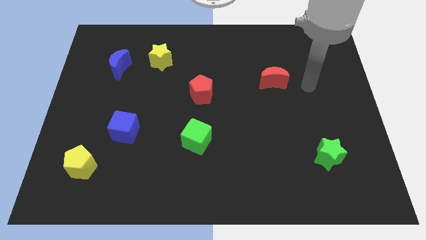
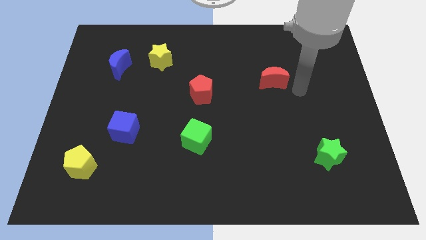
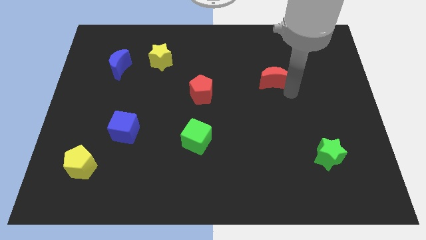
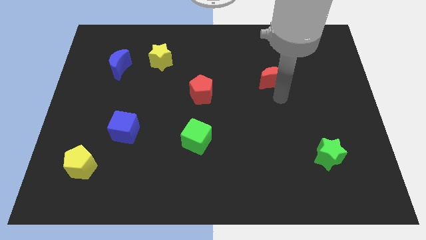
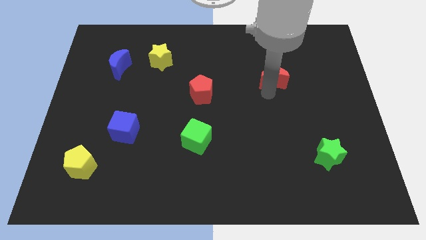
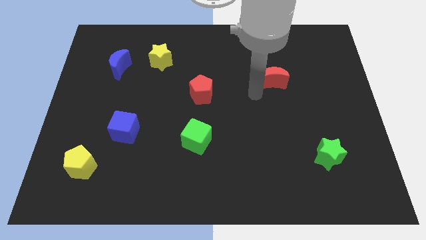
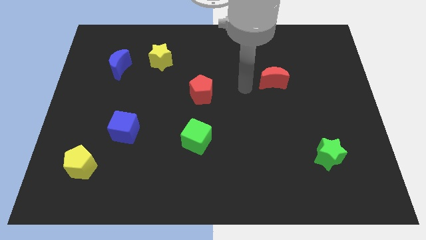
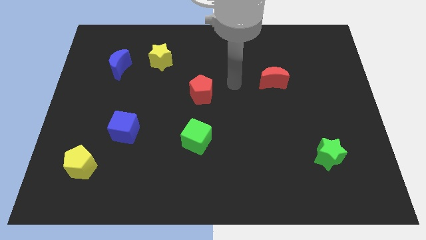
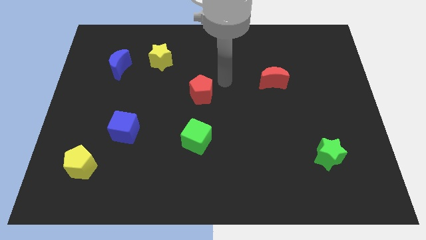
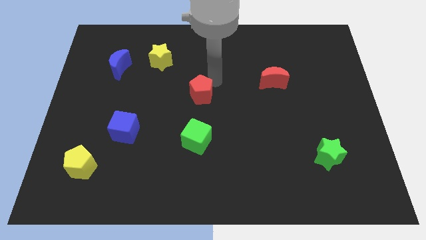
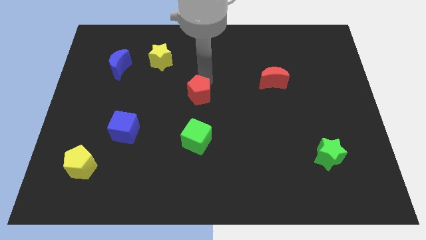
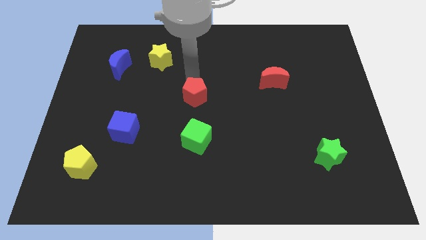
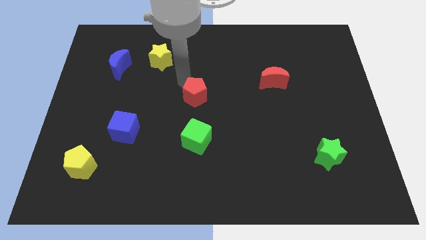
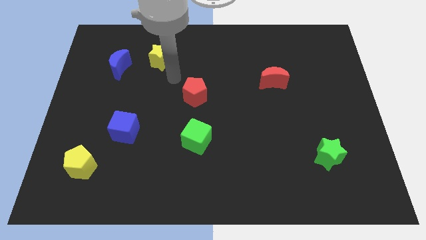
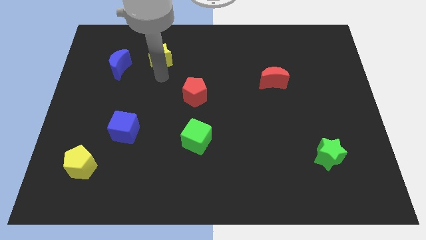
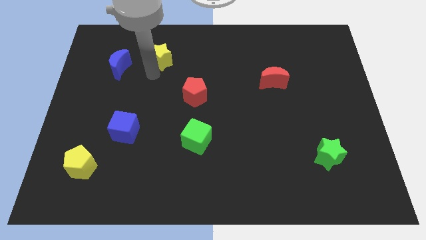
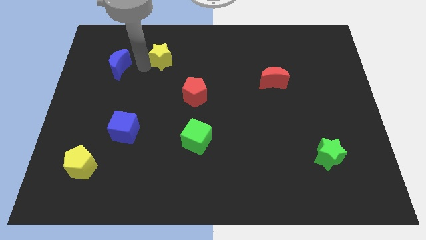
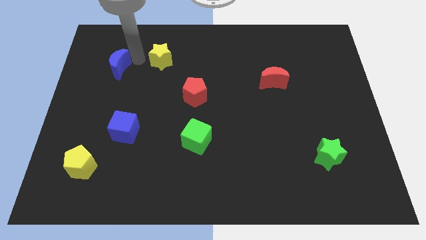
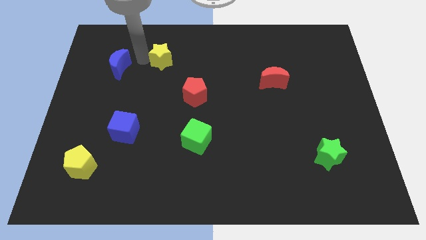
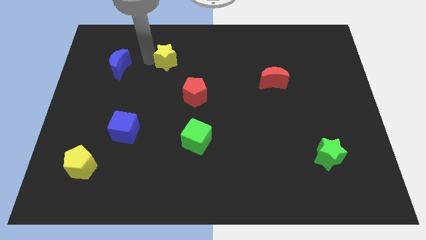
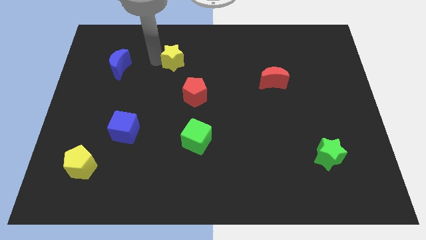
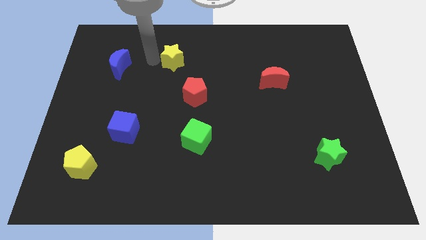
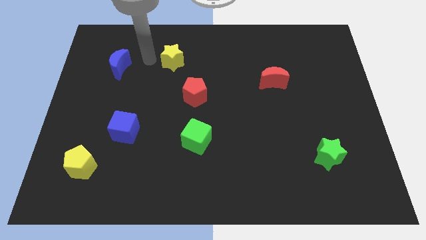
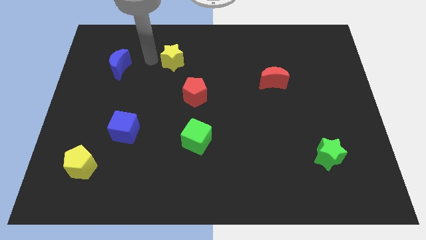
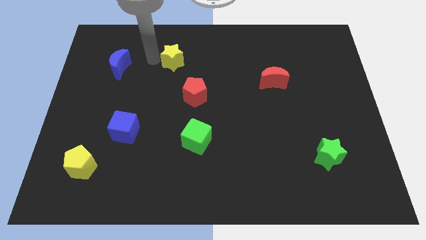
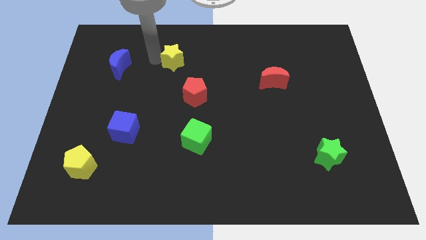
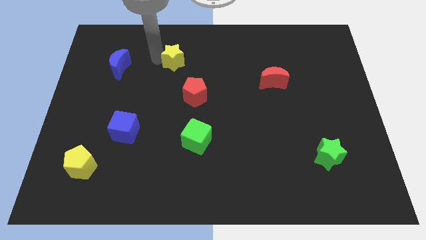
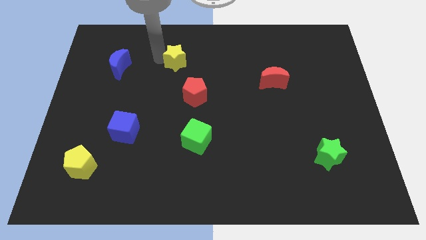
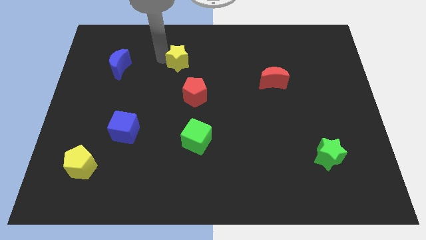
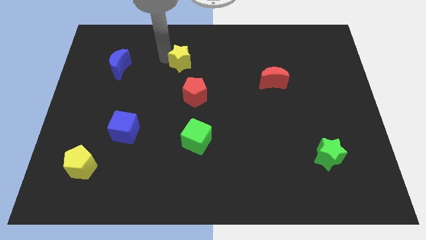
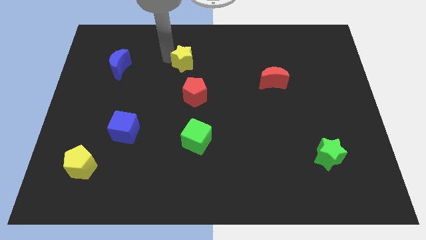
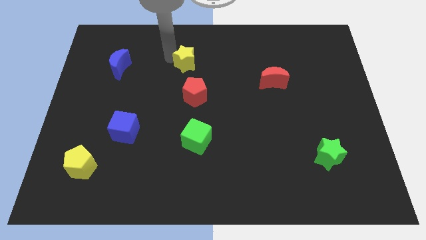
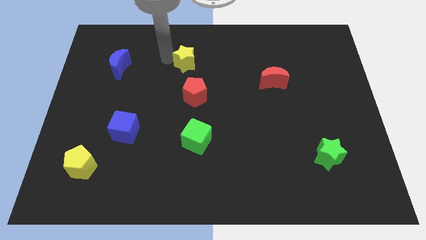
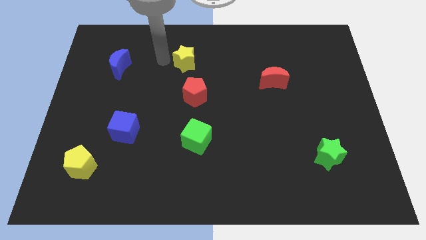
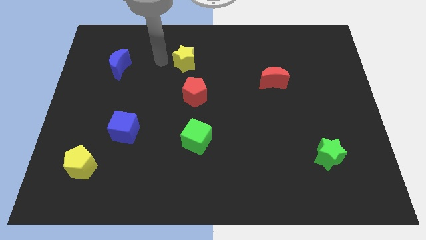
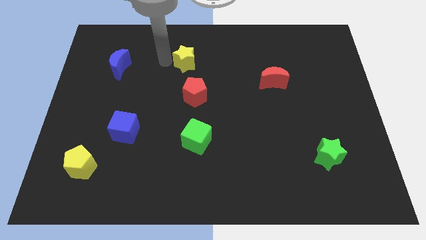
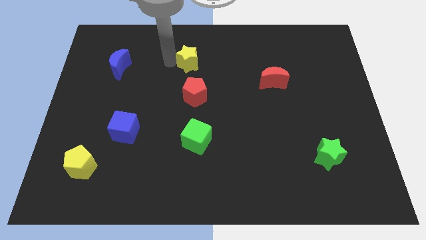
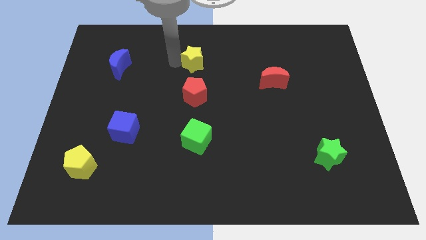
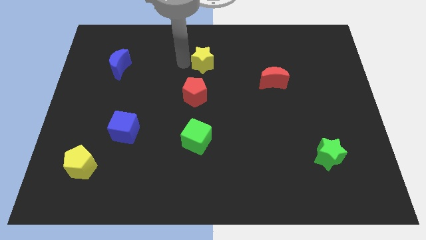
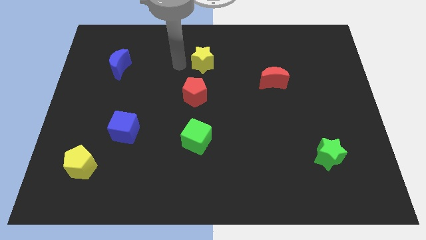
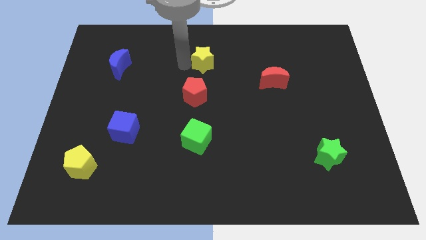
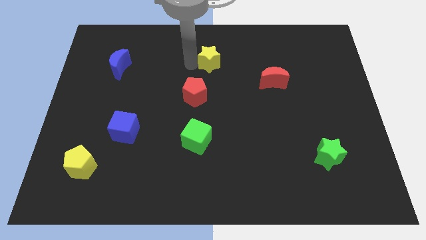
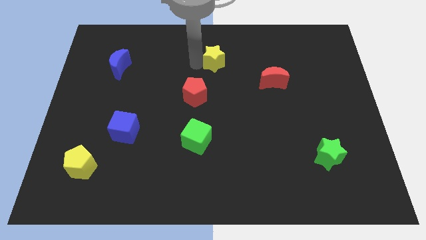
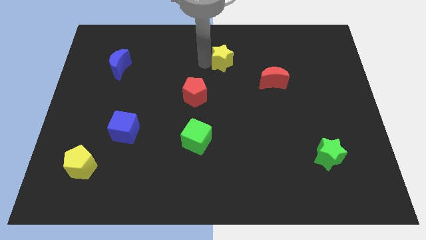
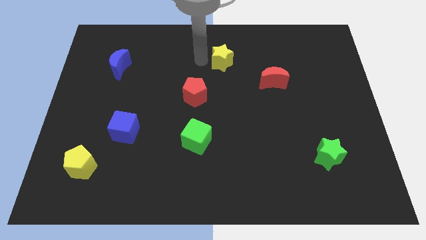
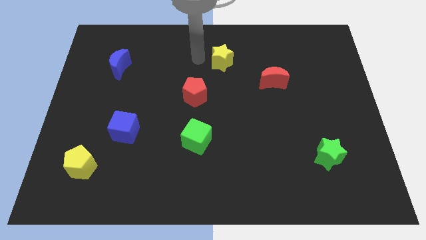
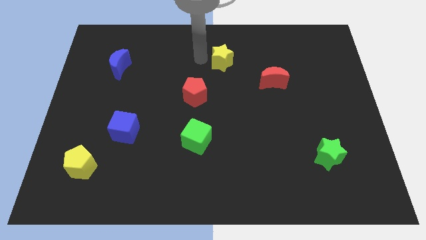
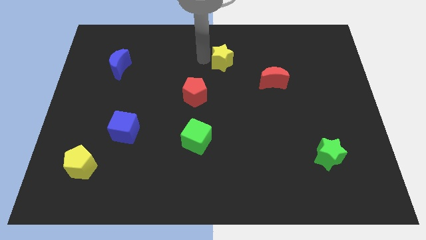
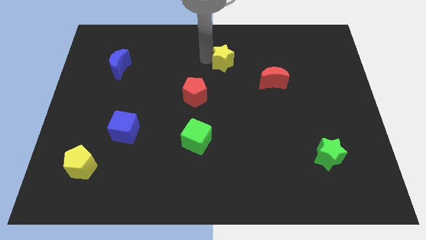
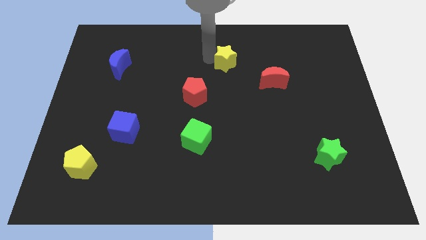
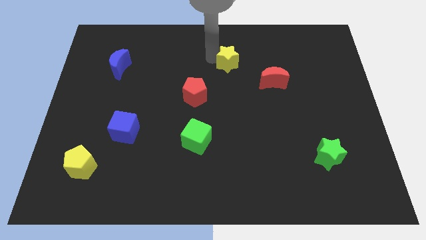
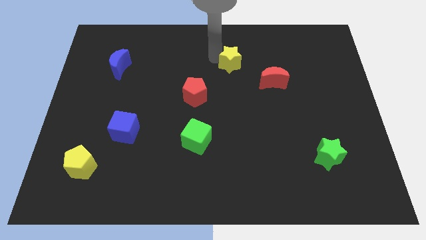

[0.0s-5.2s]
move the yellow star to the top left of the red moon

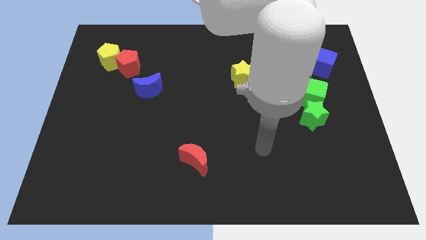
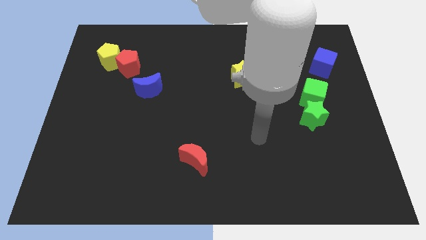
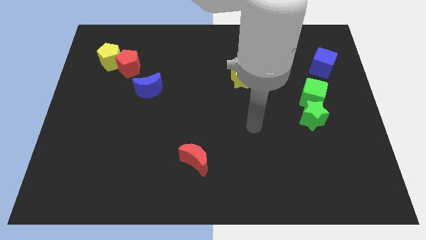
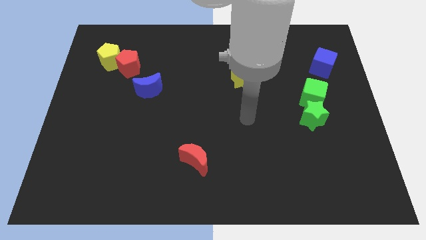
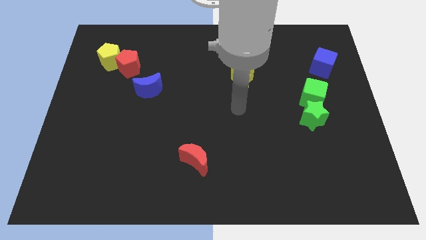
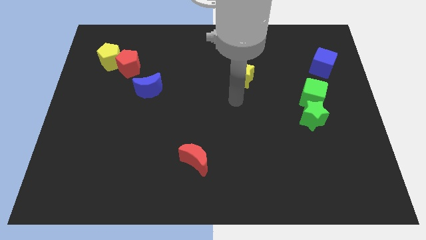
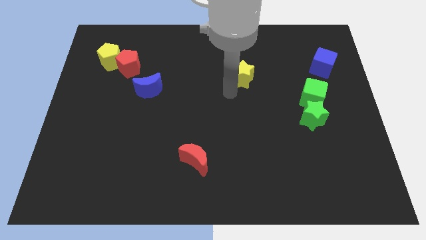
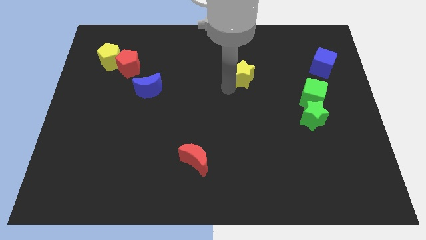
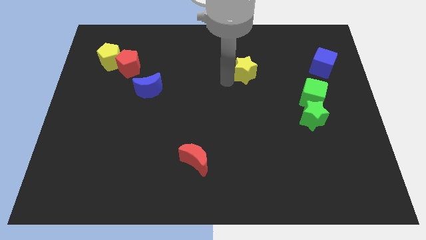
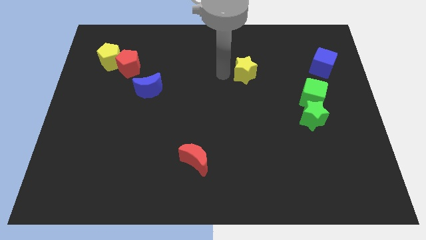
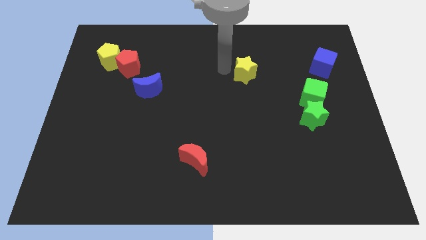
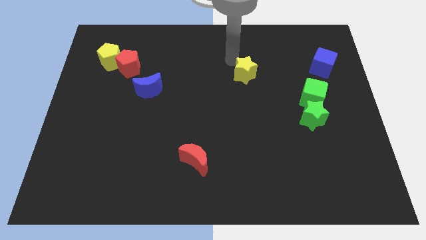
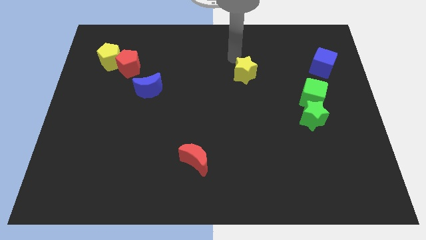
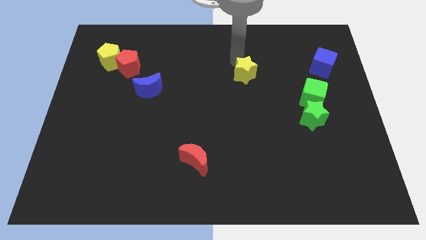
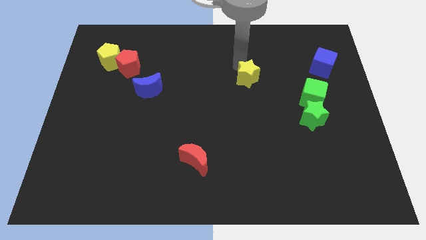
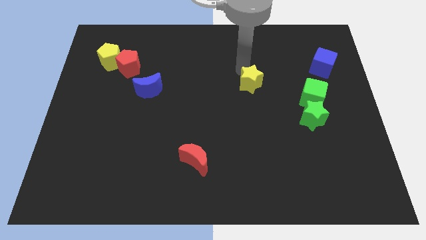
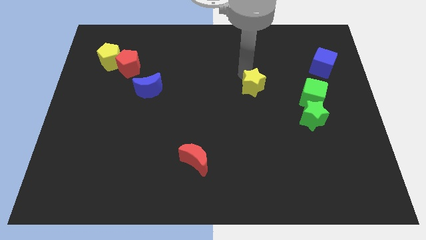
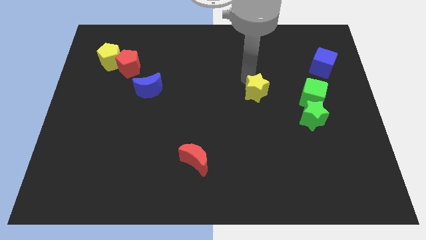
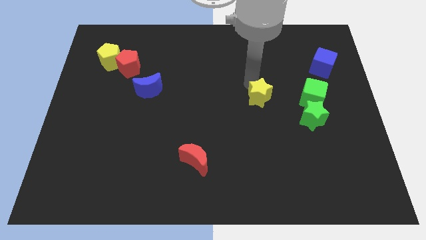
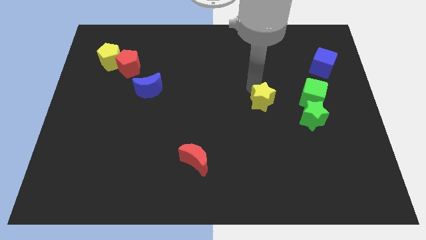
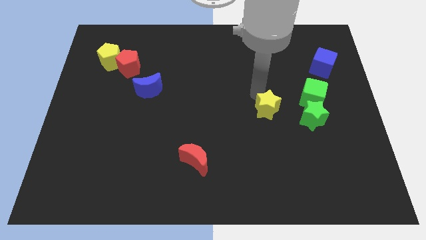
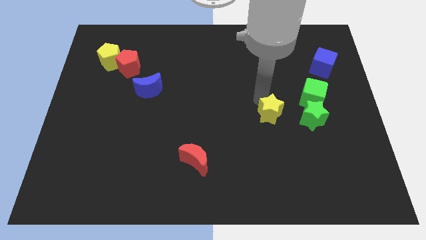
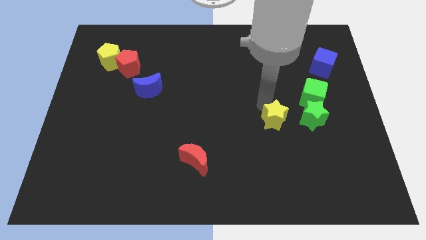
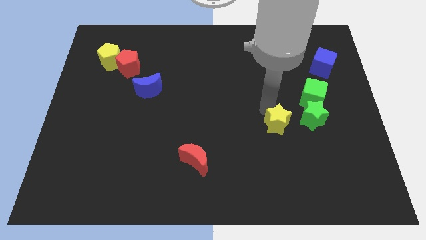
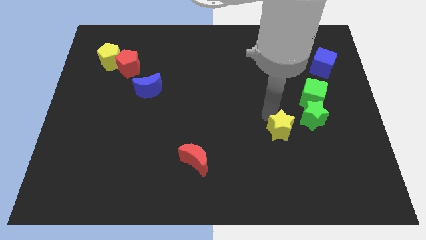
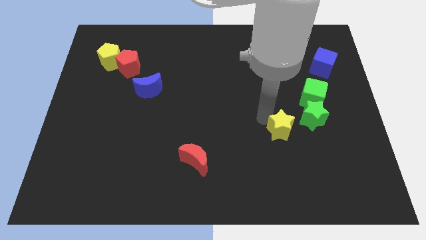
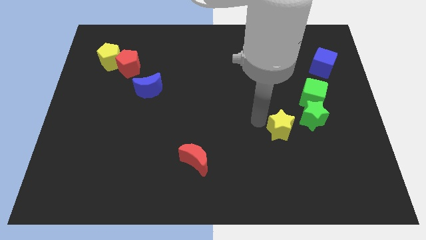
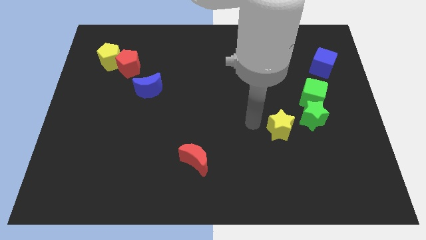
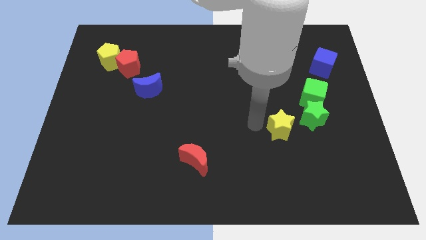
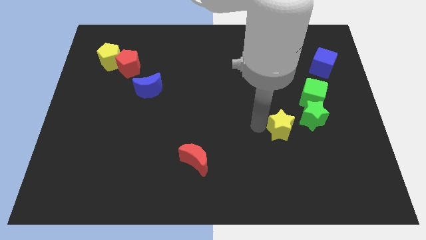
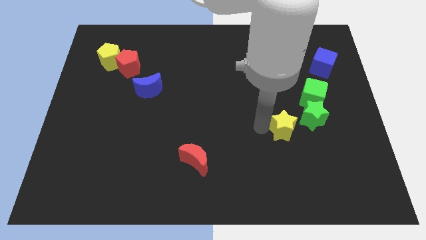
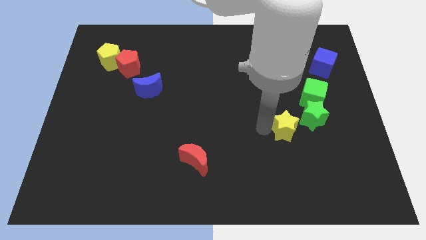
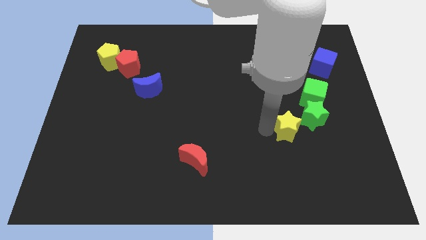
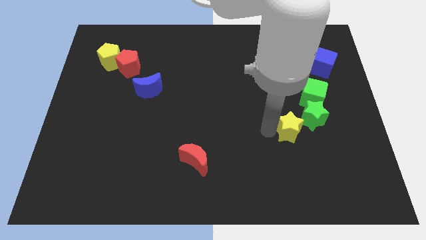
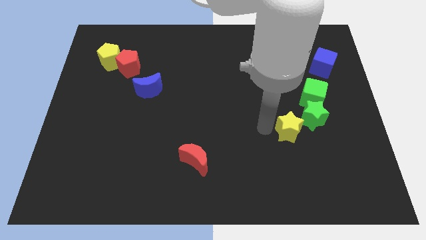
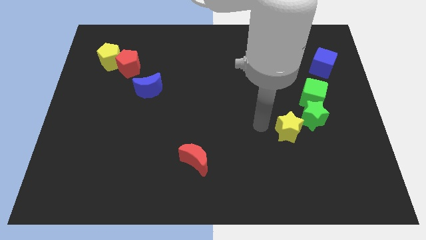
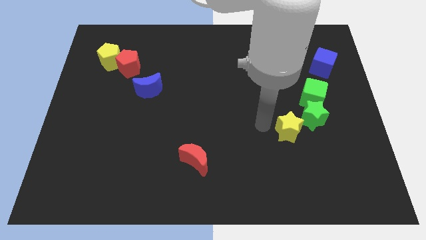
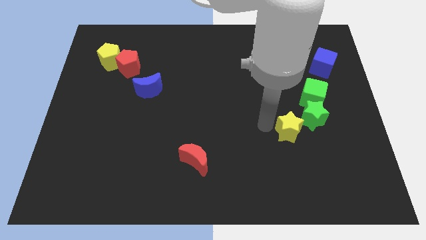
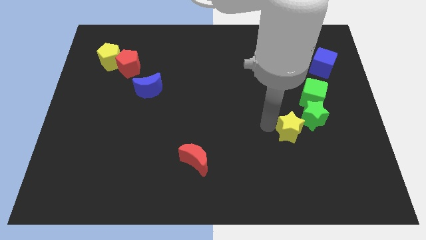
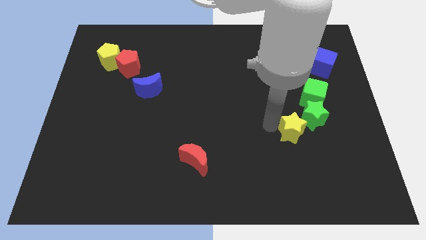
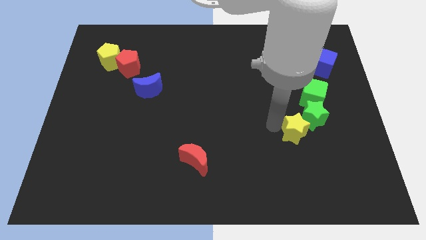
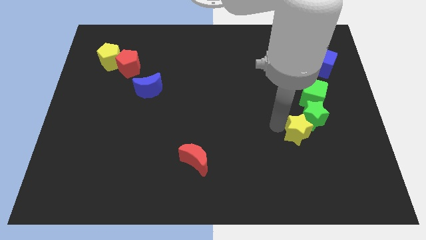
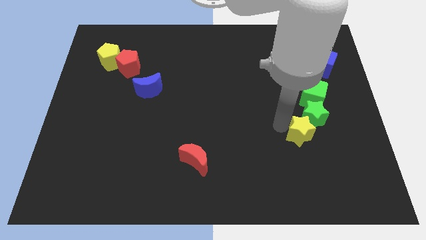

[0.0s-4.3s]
move the yellow star to the bottom side of the green cube
